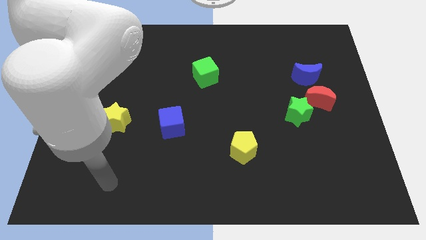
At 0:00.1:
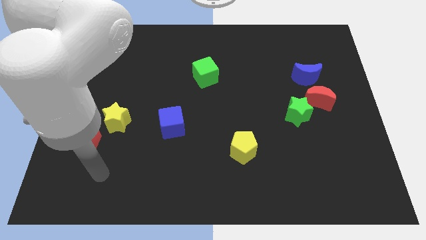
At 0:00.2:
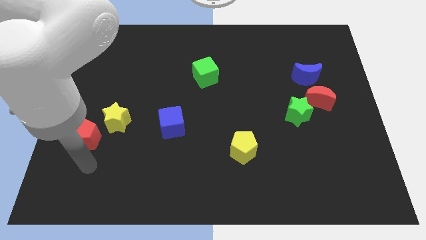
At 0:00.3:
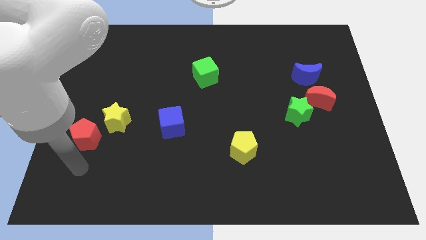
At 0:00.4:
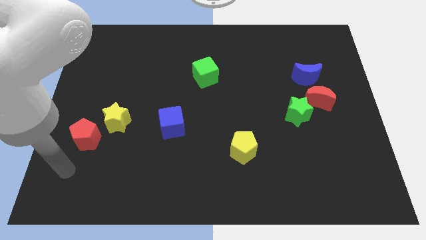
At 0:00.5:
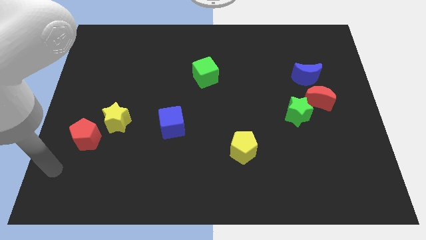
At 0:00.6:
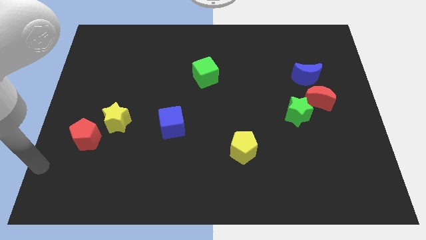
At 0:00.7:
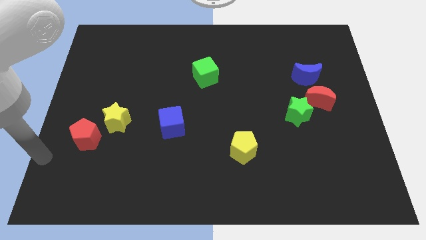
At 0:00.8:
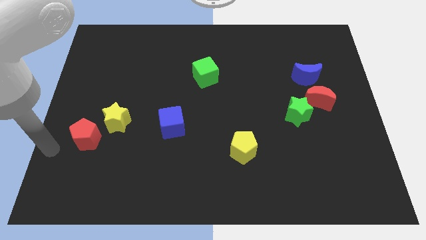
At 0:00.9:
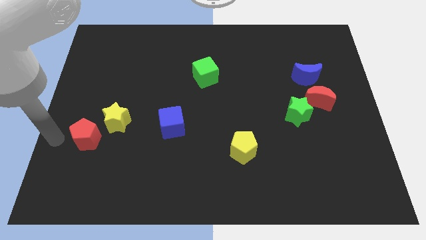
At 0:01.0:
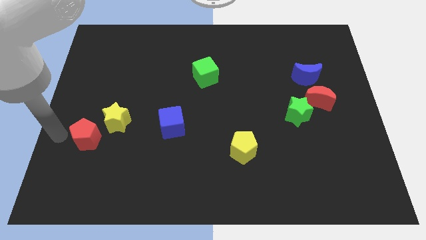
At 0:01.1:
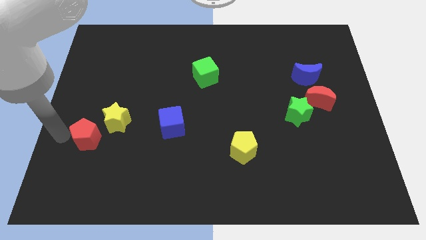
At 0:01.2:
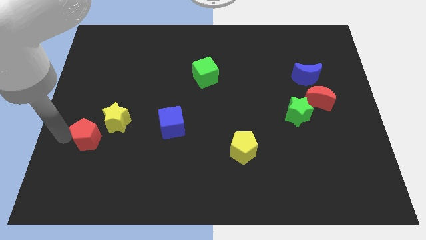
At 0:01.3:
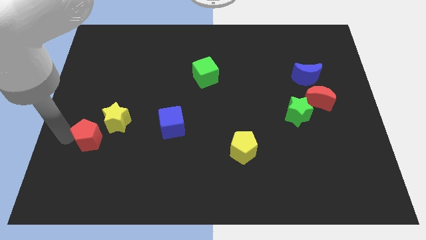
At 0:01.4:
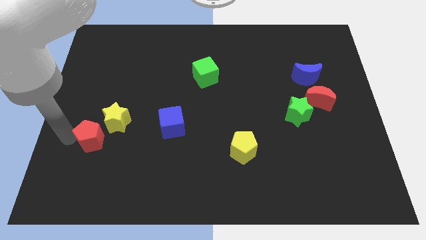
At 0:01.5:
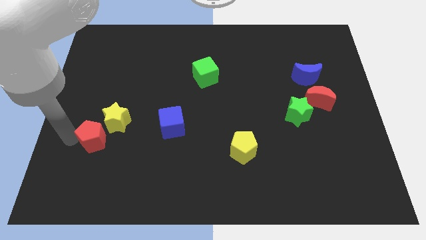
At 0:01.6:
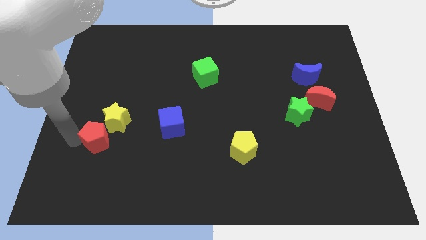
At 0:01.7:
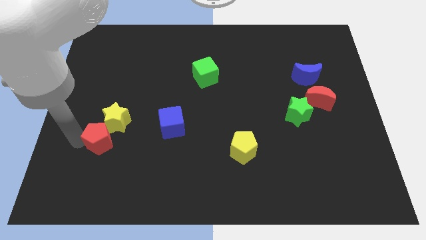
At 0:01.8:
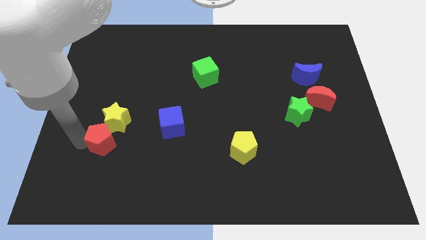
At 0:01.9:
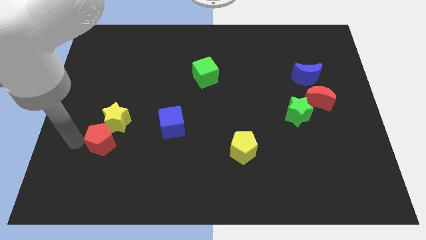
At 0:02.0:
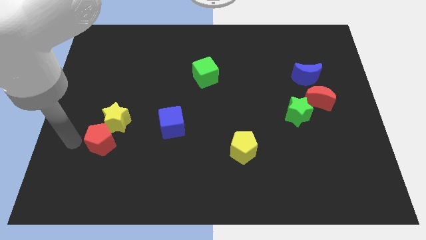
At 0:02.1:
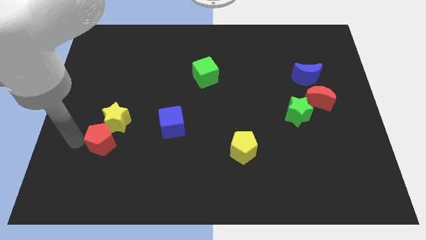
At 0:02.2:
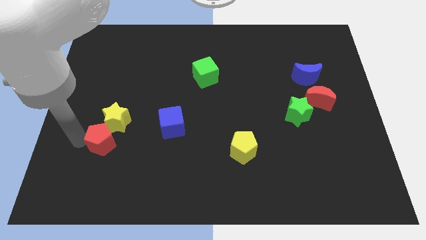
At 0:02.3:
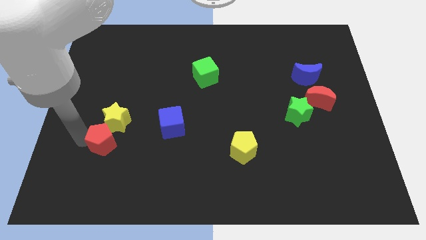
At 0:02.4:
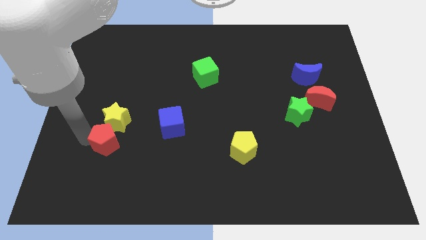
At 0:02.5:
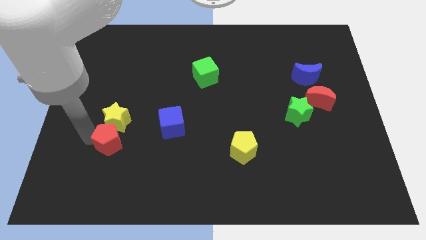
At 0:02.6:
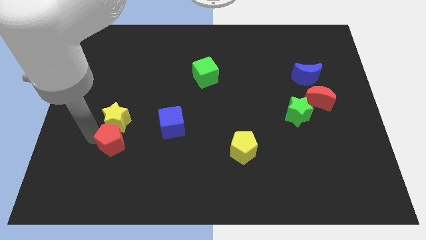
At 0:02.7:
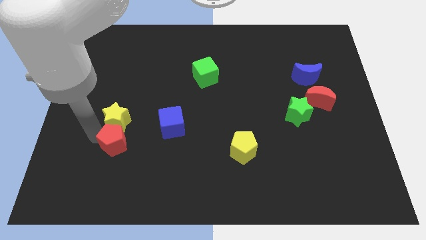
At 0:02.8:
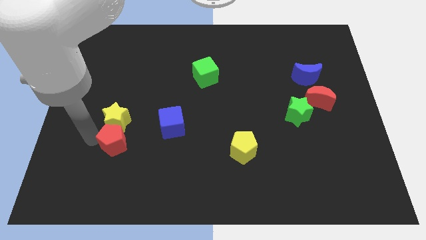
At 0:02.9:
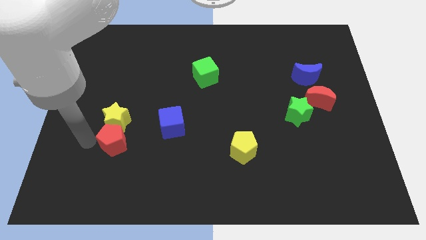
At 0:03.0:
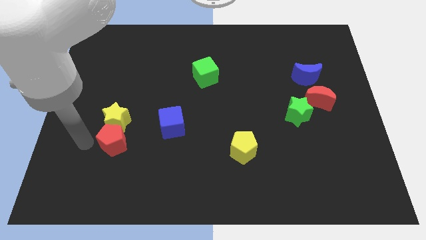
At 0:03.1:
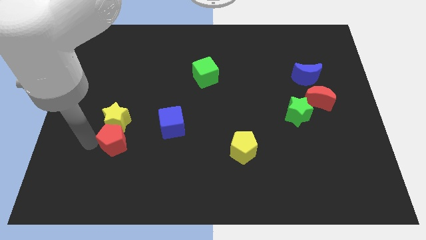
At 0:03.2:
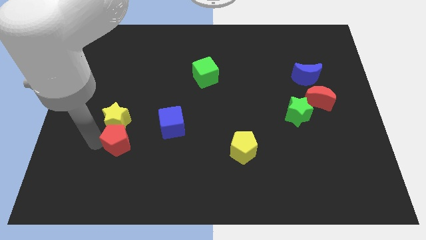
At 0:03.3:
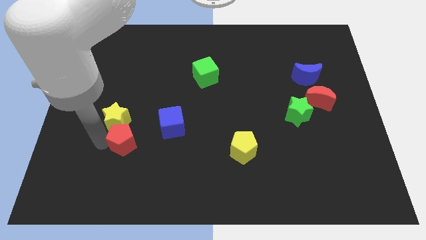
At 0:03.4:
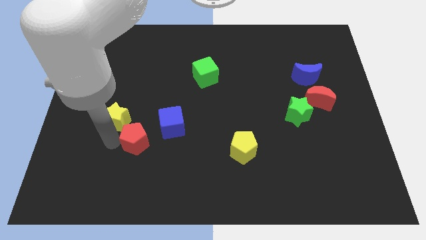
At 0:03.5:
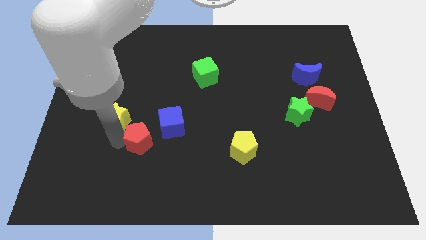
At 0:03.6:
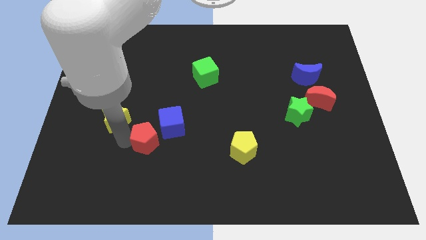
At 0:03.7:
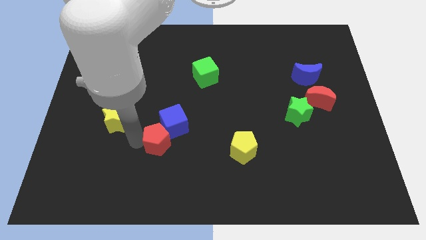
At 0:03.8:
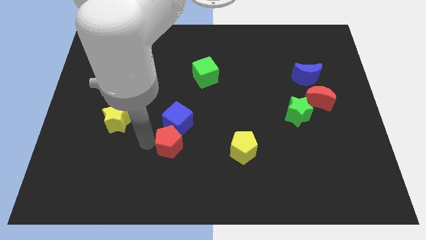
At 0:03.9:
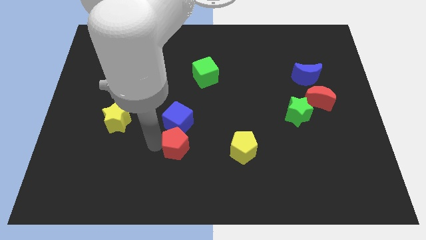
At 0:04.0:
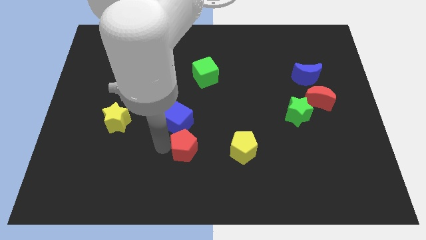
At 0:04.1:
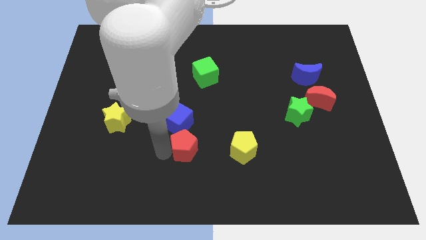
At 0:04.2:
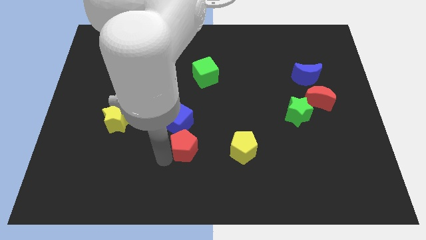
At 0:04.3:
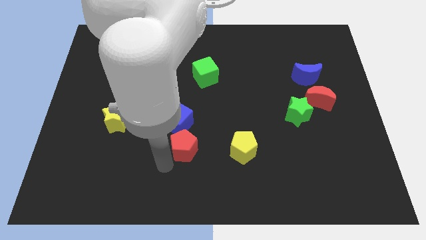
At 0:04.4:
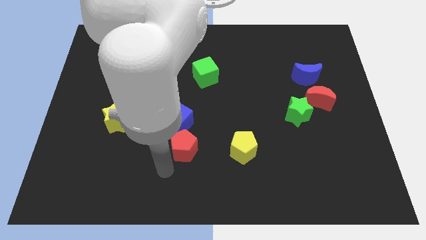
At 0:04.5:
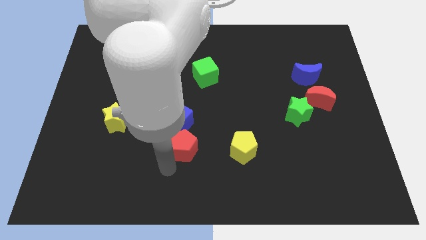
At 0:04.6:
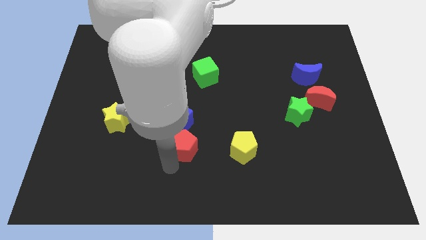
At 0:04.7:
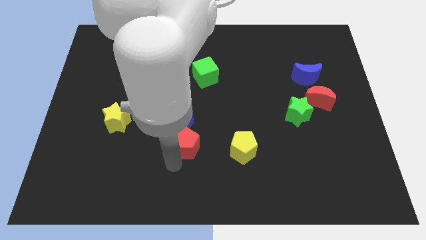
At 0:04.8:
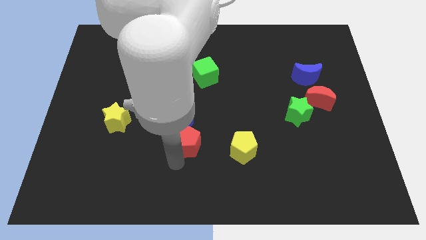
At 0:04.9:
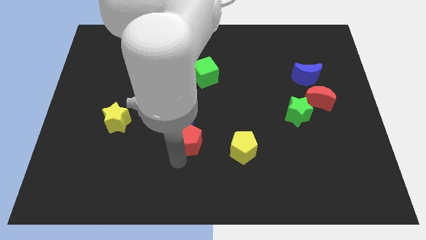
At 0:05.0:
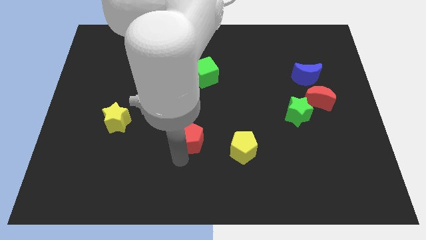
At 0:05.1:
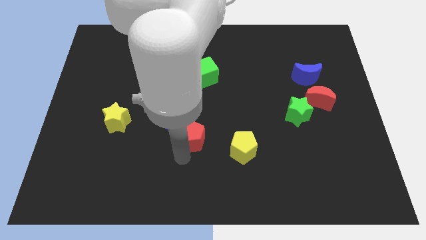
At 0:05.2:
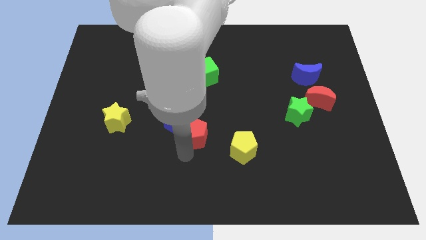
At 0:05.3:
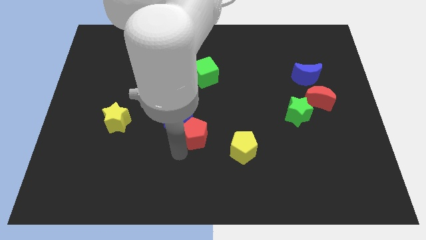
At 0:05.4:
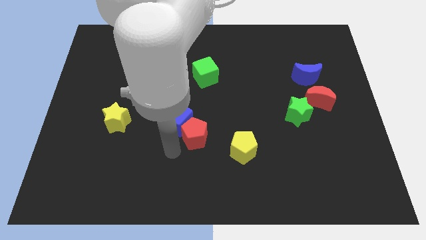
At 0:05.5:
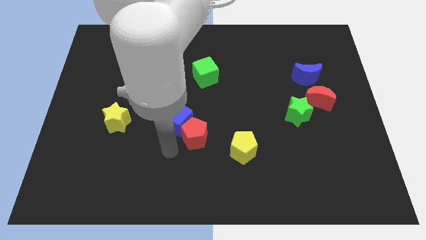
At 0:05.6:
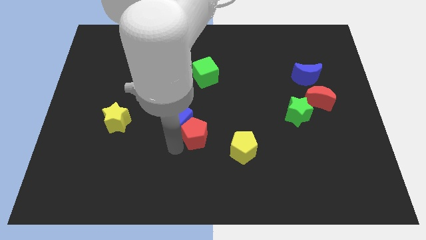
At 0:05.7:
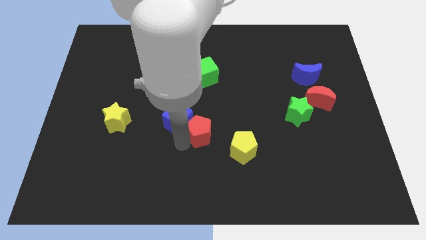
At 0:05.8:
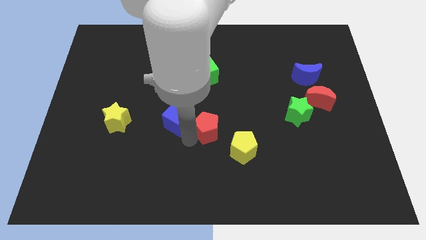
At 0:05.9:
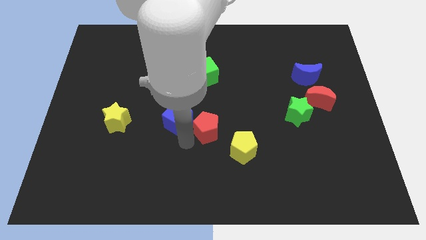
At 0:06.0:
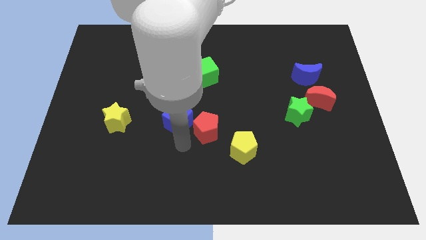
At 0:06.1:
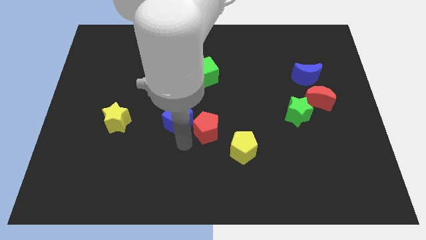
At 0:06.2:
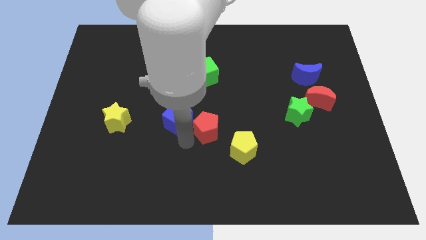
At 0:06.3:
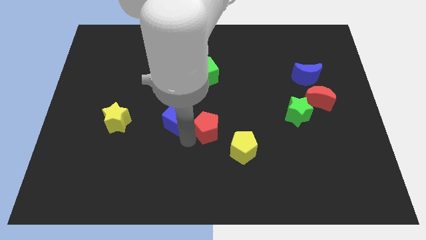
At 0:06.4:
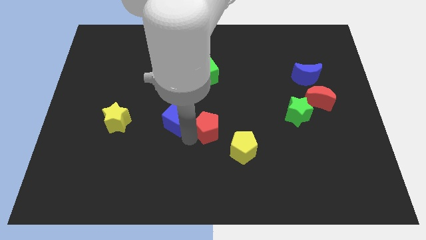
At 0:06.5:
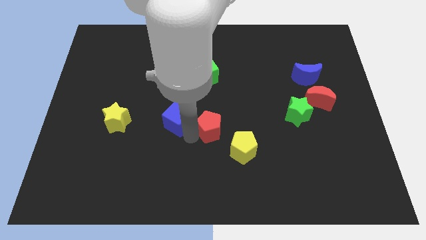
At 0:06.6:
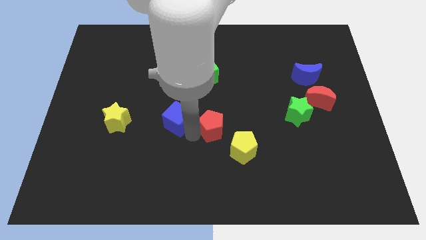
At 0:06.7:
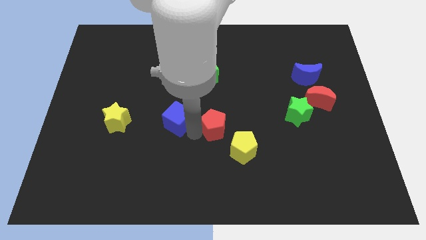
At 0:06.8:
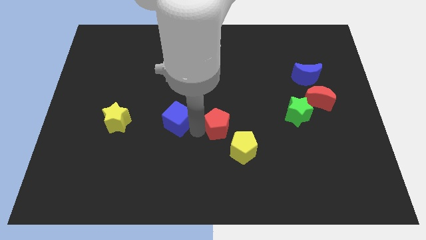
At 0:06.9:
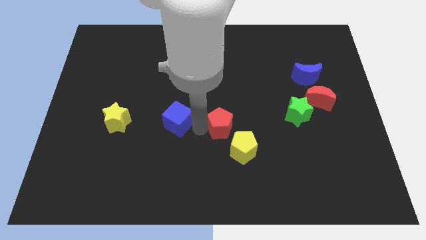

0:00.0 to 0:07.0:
push the red pentagon to the top of the yellow pentagon

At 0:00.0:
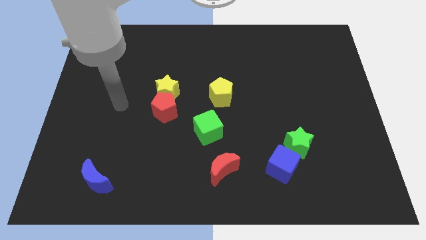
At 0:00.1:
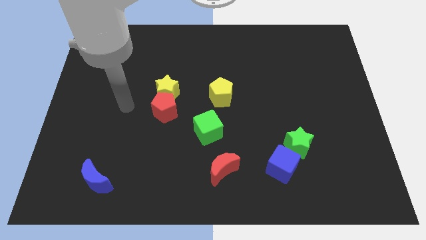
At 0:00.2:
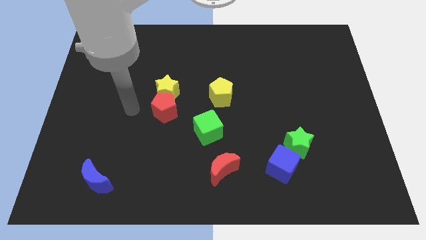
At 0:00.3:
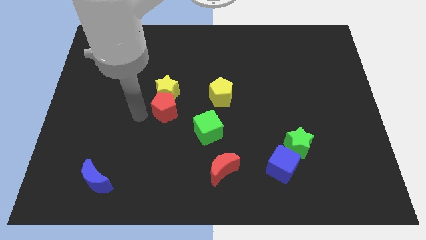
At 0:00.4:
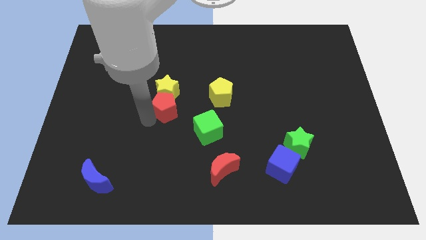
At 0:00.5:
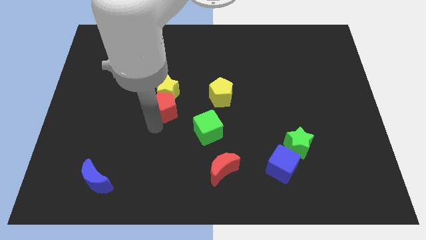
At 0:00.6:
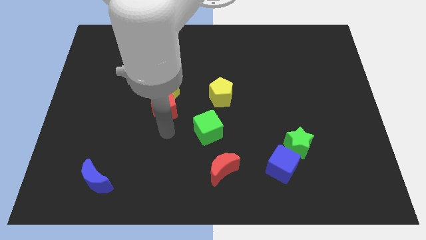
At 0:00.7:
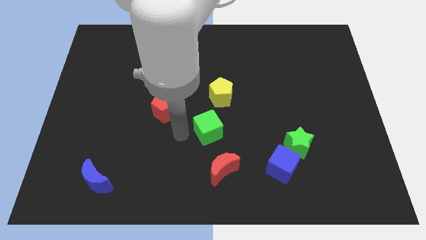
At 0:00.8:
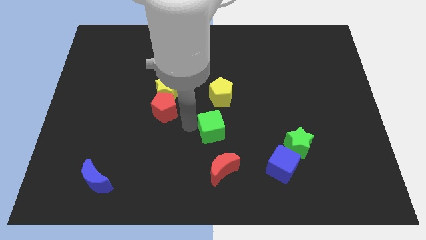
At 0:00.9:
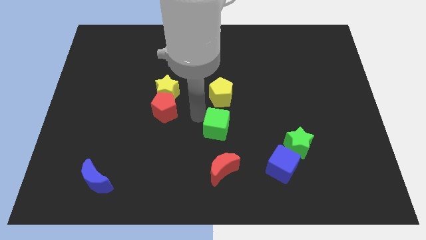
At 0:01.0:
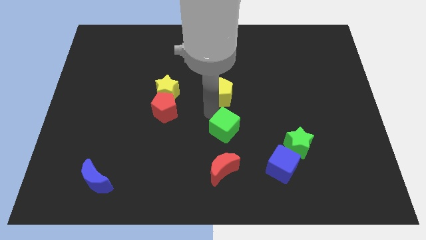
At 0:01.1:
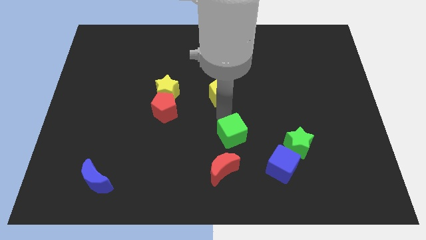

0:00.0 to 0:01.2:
slide the green star just right of the green cube
